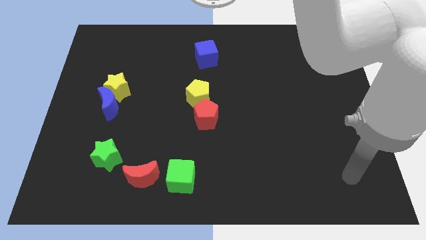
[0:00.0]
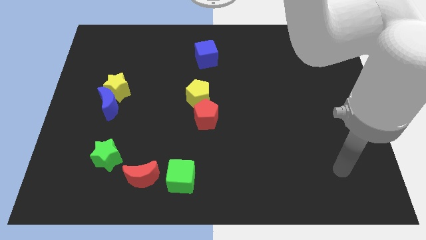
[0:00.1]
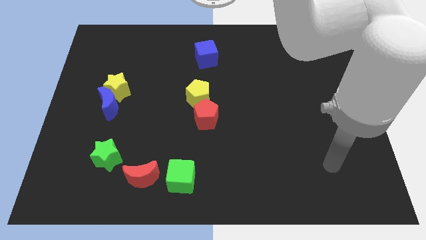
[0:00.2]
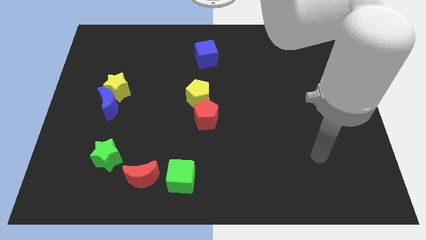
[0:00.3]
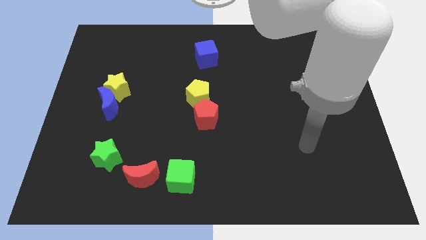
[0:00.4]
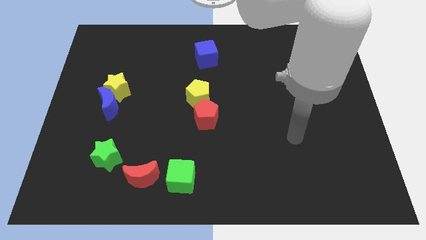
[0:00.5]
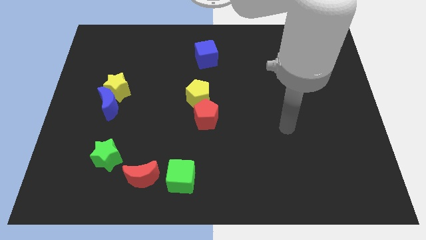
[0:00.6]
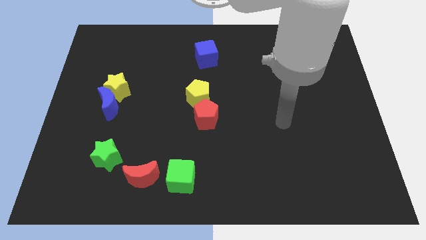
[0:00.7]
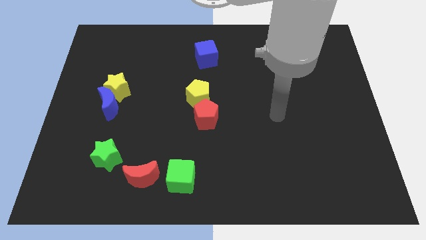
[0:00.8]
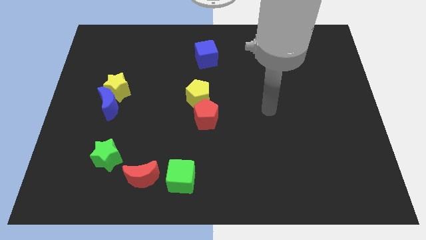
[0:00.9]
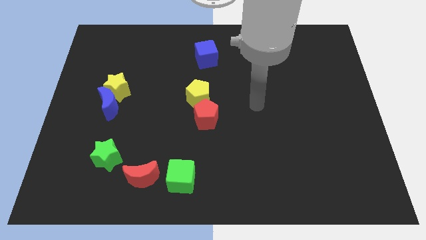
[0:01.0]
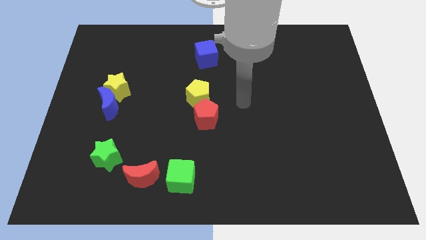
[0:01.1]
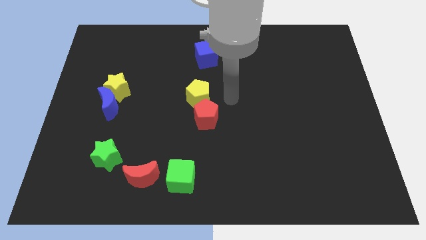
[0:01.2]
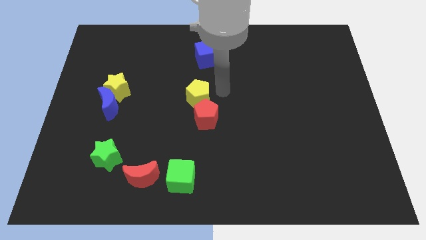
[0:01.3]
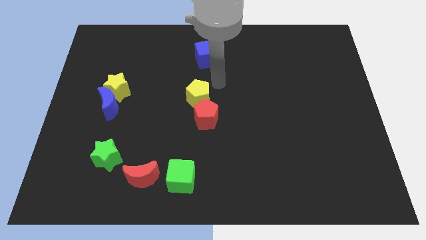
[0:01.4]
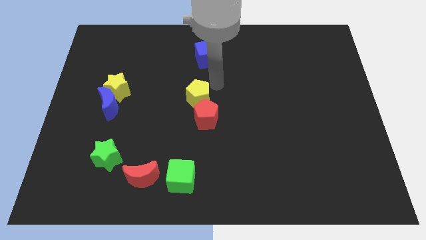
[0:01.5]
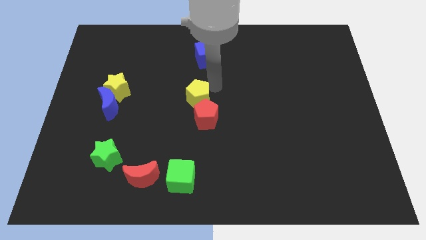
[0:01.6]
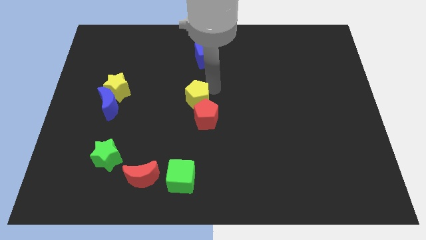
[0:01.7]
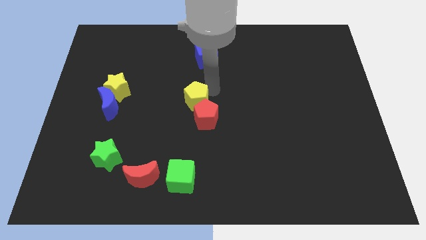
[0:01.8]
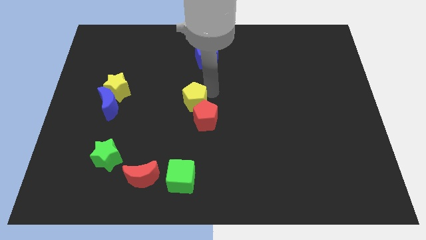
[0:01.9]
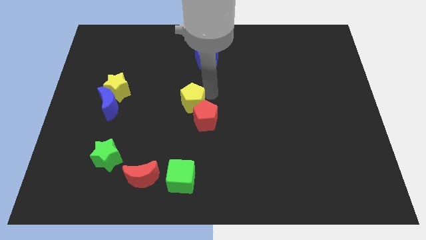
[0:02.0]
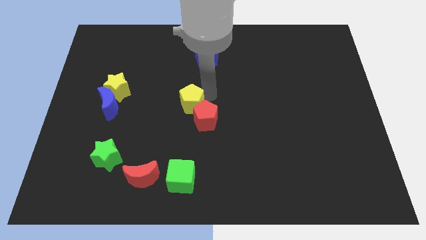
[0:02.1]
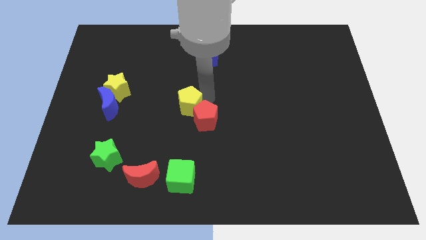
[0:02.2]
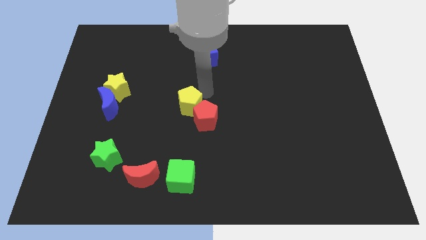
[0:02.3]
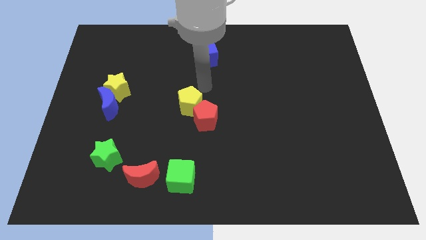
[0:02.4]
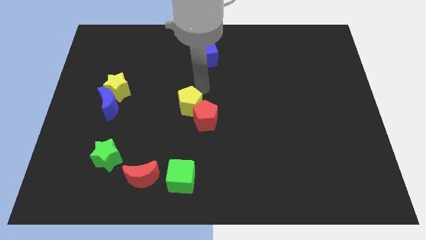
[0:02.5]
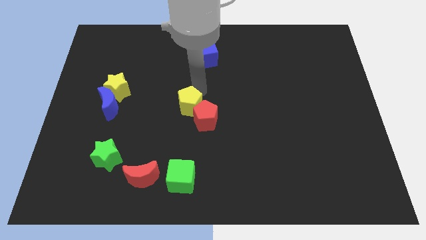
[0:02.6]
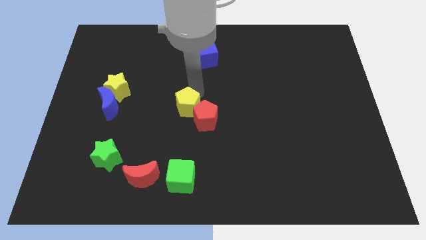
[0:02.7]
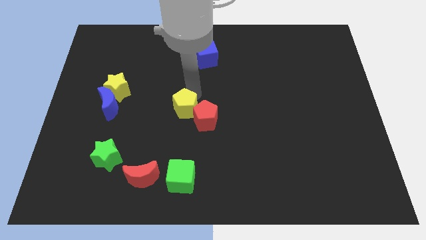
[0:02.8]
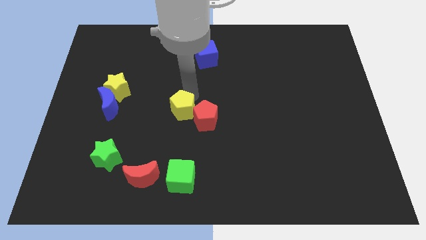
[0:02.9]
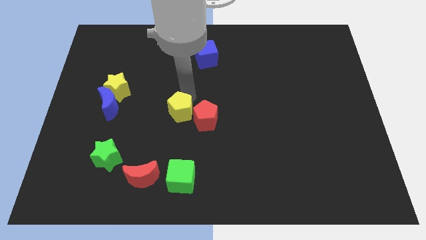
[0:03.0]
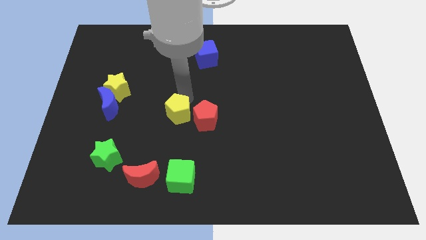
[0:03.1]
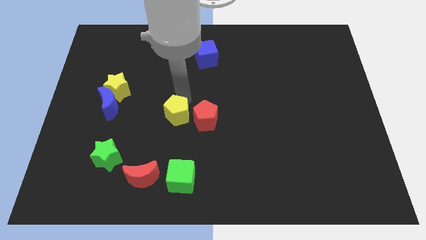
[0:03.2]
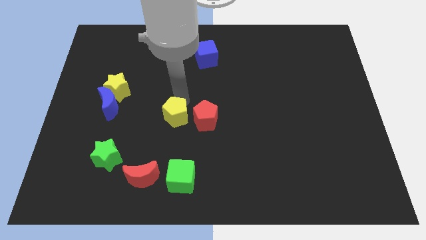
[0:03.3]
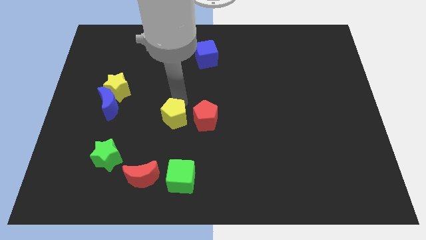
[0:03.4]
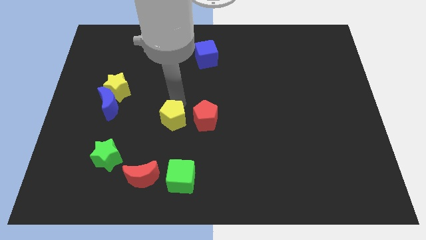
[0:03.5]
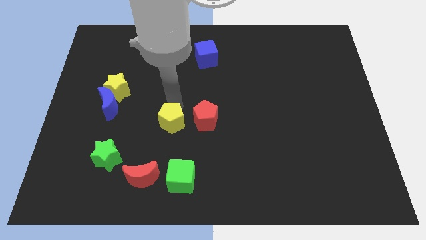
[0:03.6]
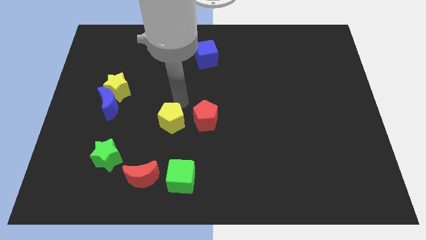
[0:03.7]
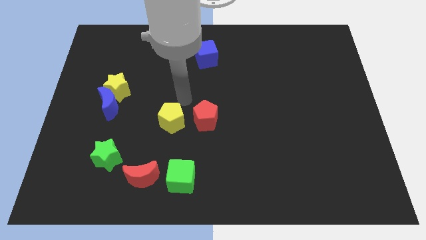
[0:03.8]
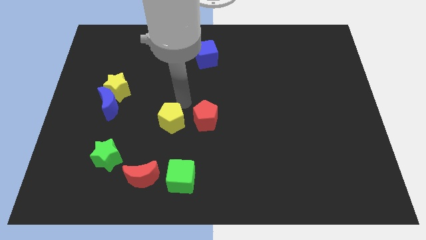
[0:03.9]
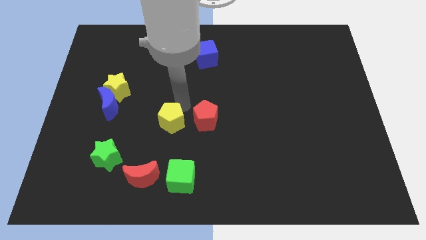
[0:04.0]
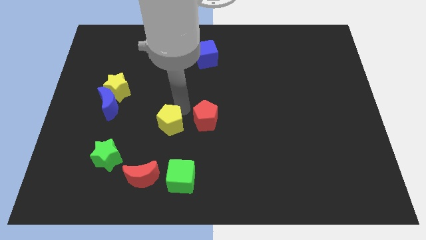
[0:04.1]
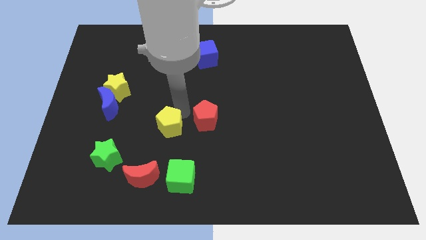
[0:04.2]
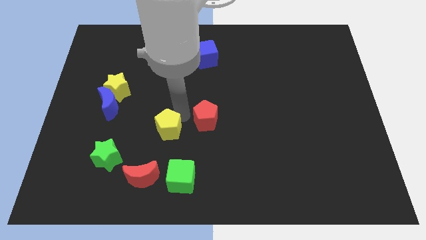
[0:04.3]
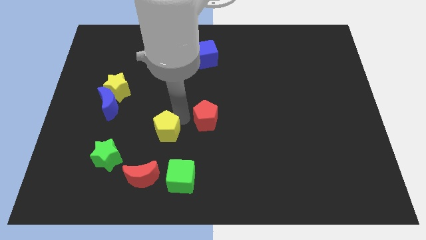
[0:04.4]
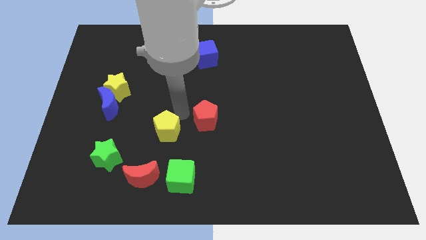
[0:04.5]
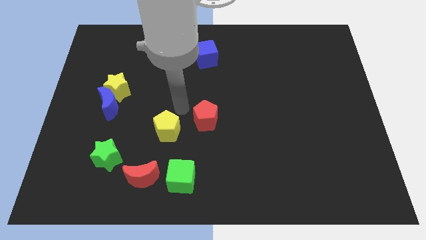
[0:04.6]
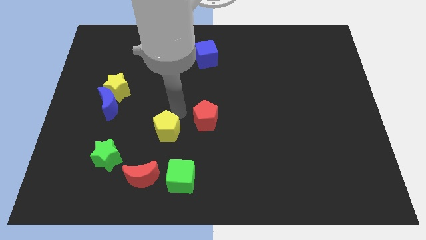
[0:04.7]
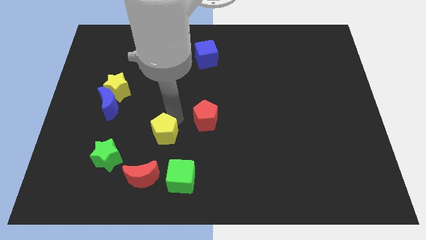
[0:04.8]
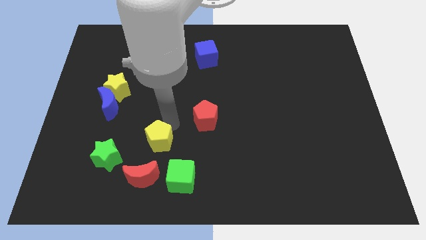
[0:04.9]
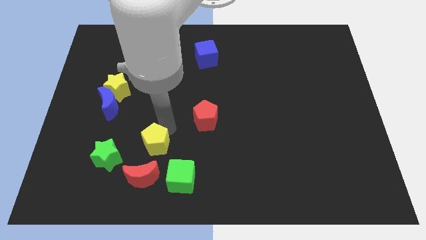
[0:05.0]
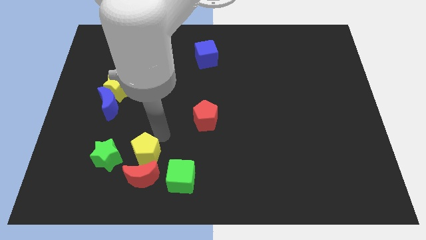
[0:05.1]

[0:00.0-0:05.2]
put the yellow pentagon close to the red moon
